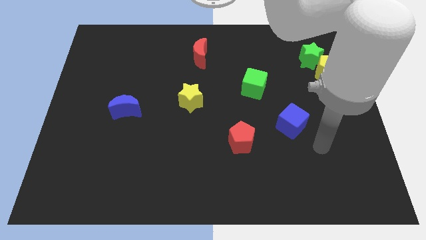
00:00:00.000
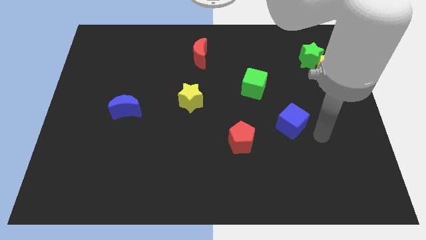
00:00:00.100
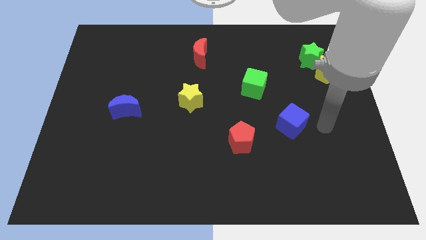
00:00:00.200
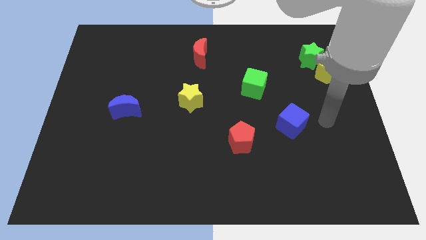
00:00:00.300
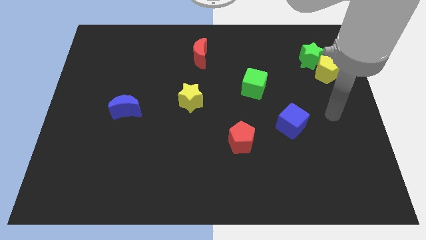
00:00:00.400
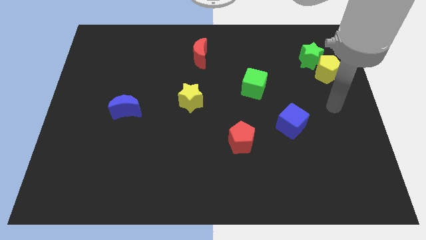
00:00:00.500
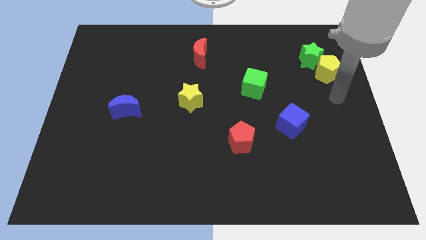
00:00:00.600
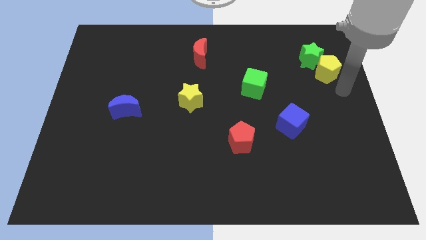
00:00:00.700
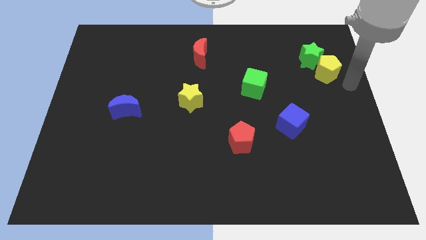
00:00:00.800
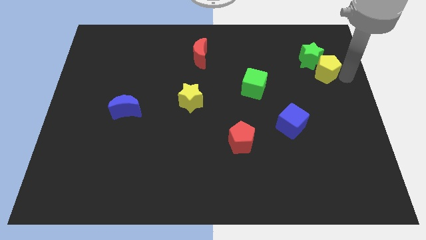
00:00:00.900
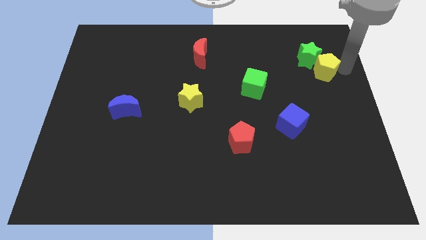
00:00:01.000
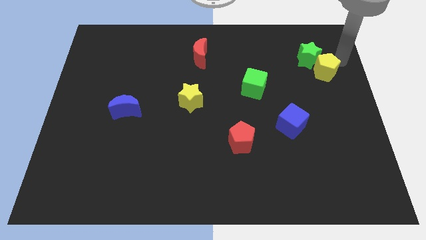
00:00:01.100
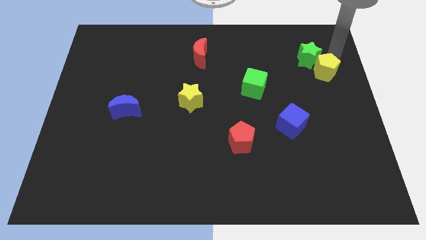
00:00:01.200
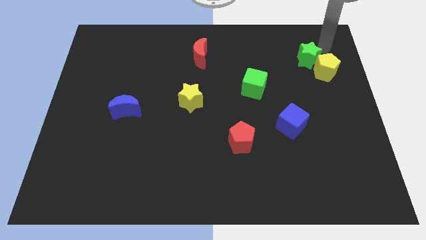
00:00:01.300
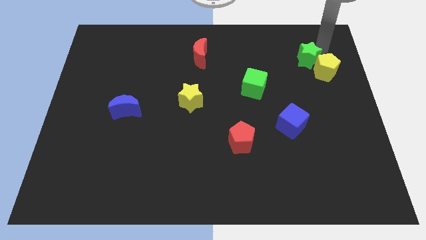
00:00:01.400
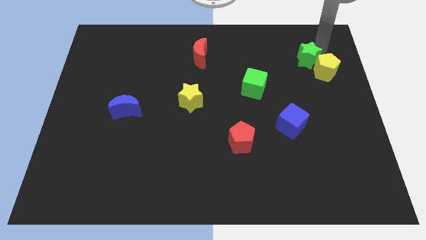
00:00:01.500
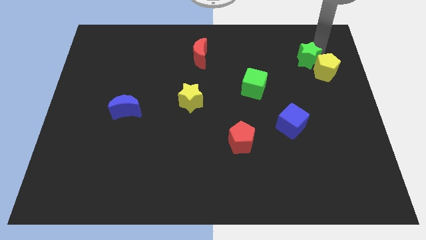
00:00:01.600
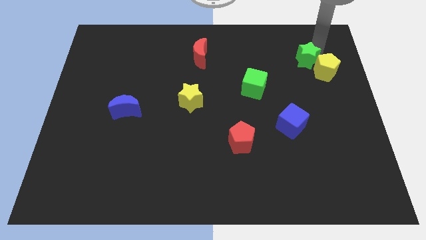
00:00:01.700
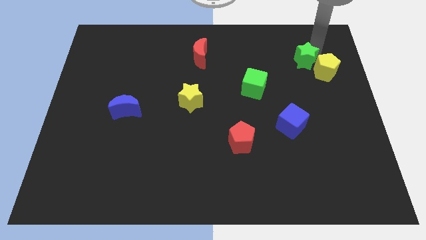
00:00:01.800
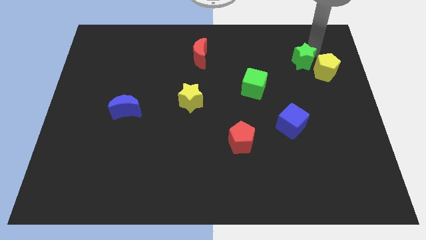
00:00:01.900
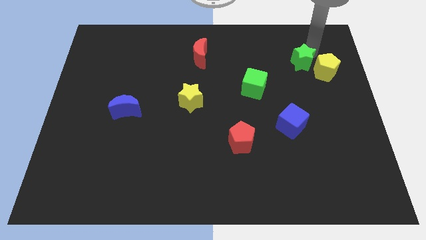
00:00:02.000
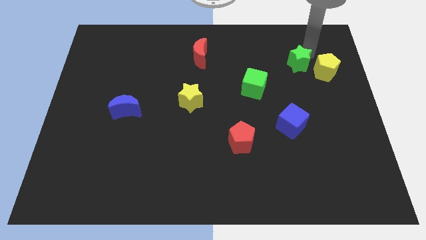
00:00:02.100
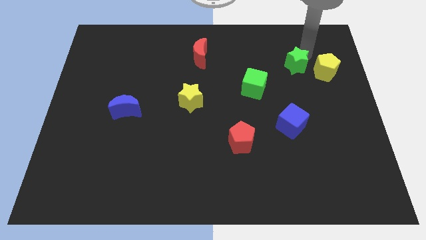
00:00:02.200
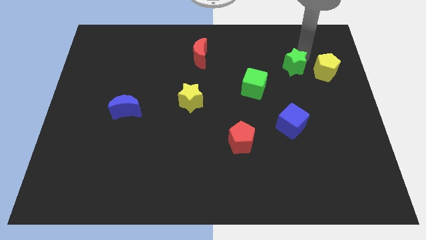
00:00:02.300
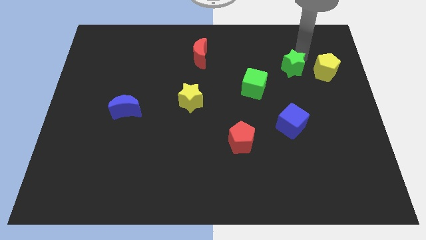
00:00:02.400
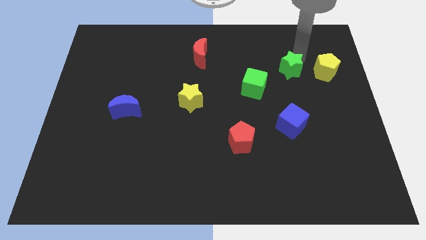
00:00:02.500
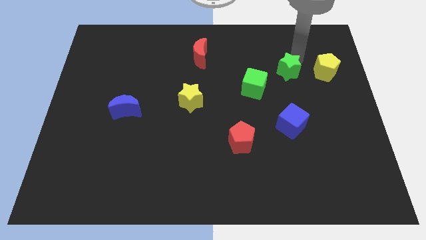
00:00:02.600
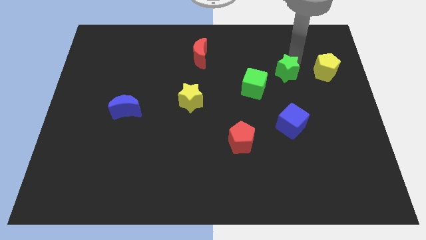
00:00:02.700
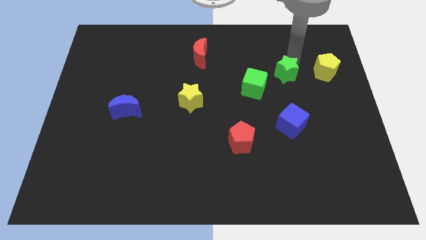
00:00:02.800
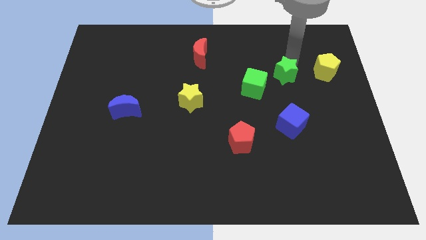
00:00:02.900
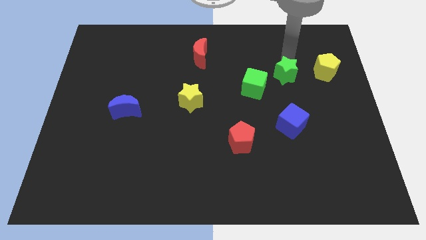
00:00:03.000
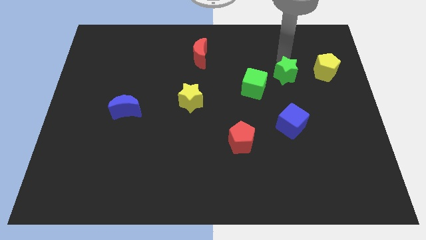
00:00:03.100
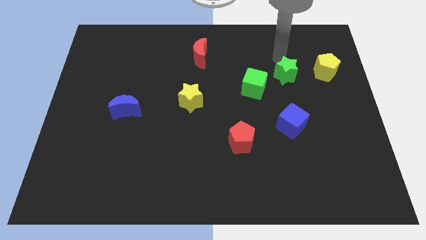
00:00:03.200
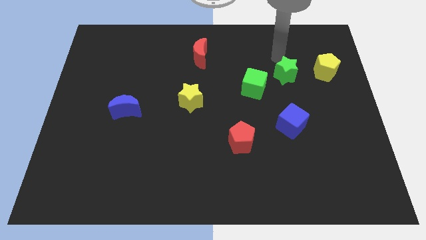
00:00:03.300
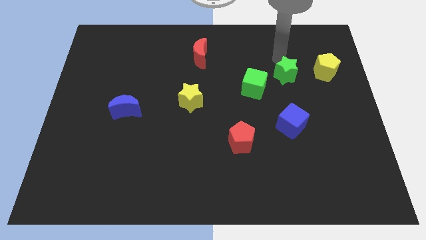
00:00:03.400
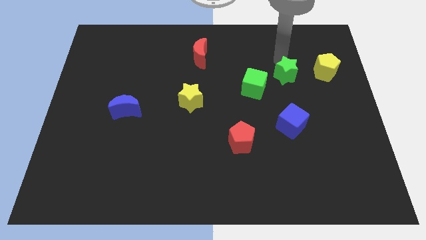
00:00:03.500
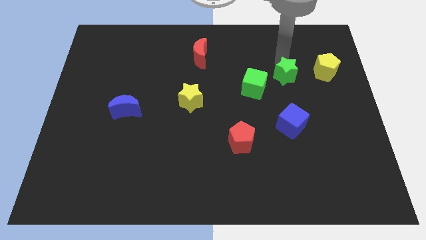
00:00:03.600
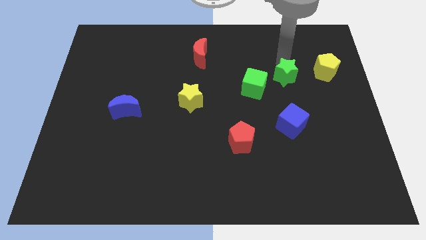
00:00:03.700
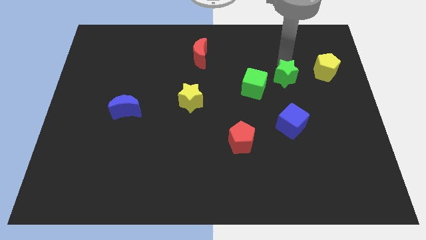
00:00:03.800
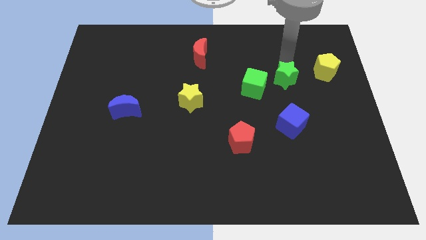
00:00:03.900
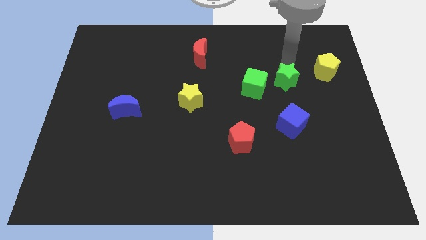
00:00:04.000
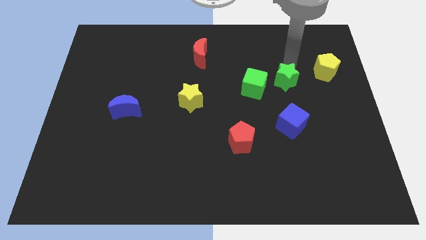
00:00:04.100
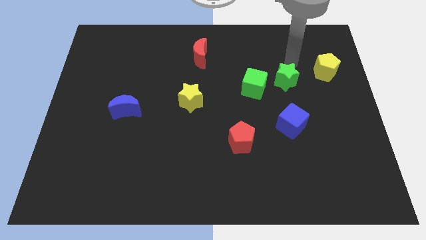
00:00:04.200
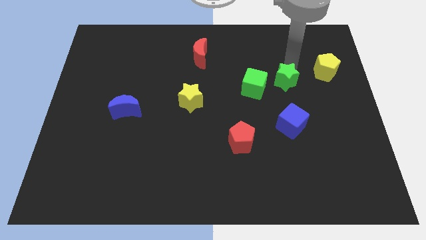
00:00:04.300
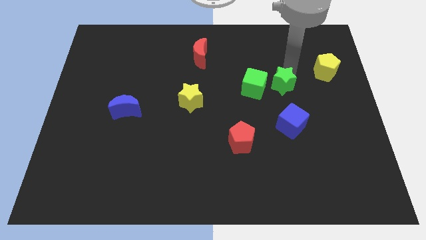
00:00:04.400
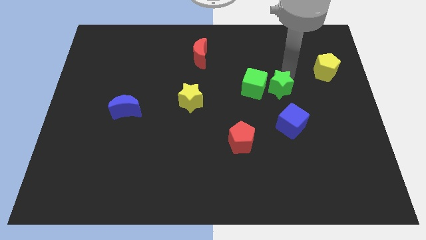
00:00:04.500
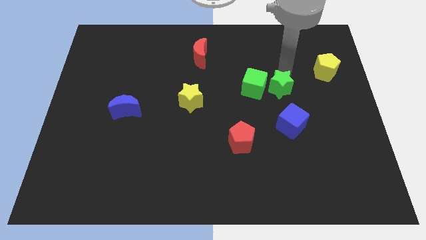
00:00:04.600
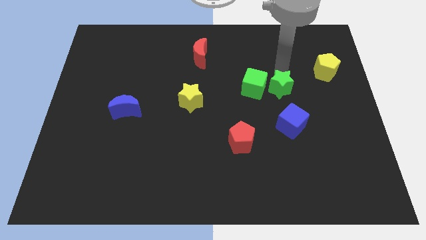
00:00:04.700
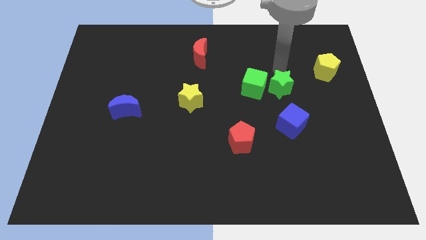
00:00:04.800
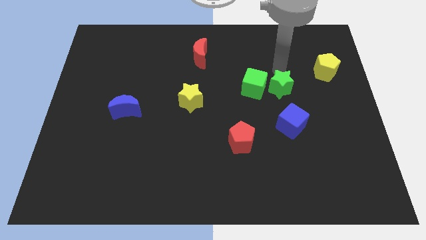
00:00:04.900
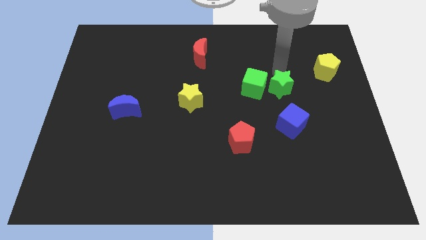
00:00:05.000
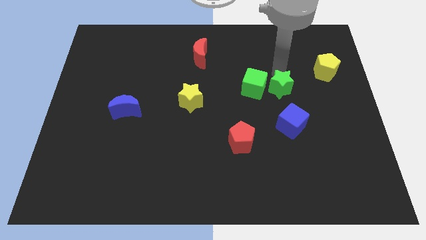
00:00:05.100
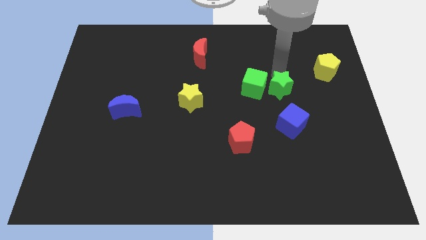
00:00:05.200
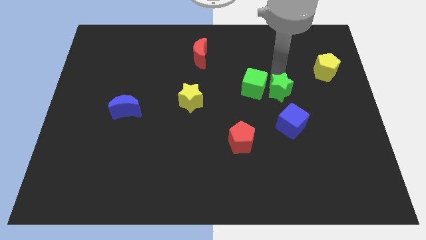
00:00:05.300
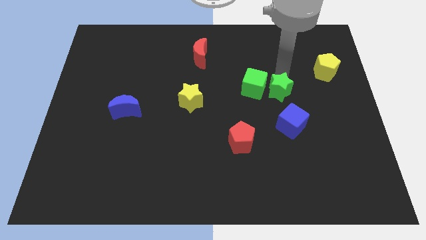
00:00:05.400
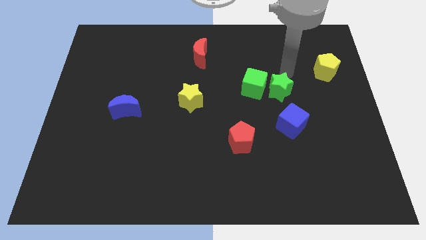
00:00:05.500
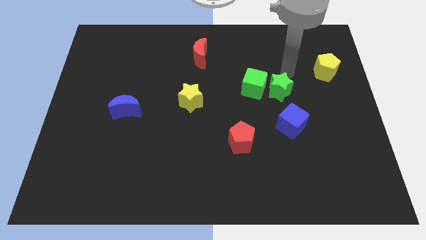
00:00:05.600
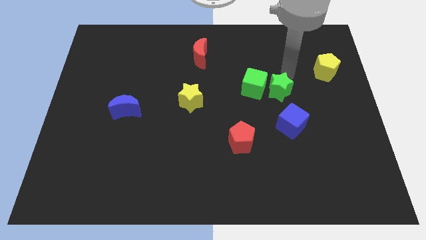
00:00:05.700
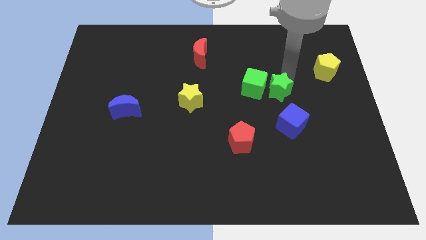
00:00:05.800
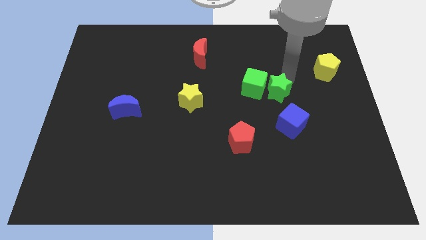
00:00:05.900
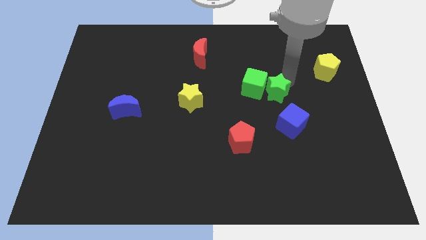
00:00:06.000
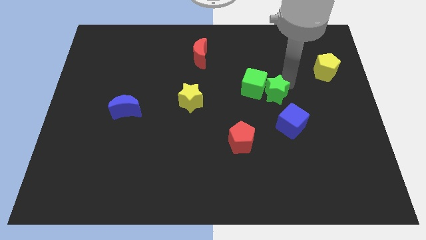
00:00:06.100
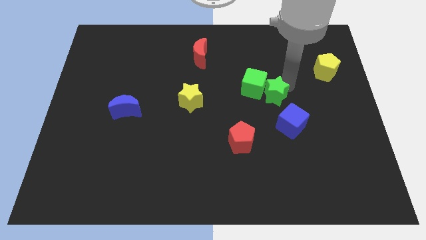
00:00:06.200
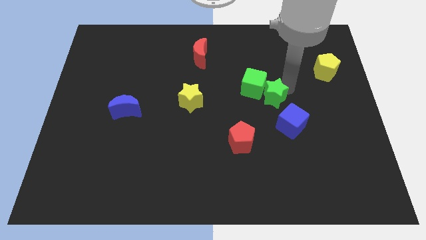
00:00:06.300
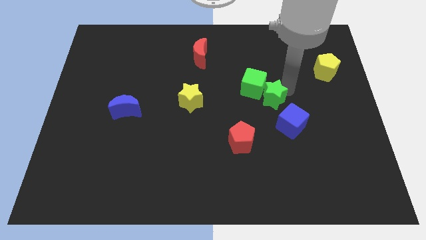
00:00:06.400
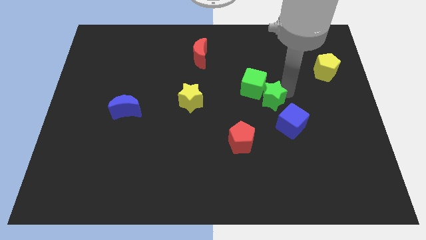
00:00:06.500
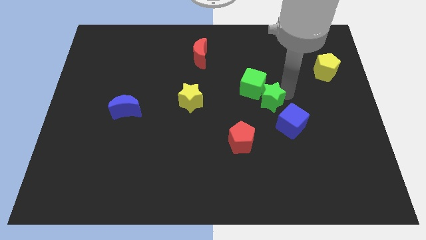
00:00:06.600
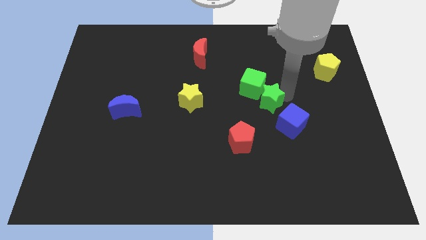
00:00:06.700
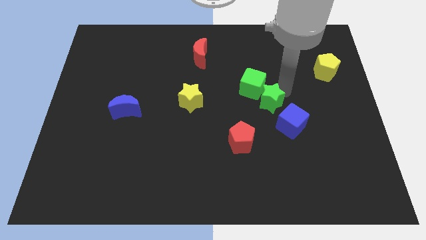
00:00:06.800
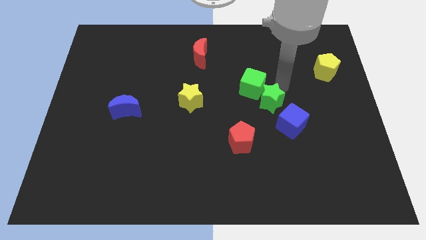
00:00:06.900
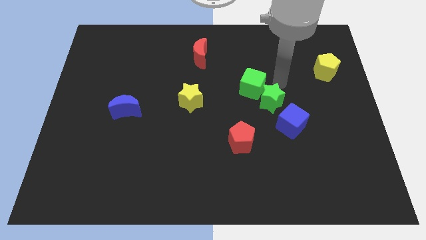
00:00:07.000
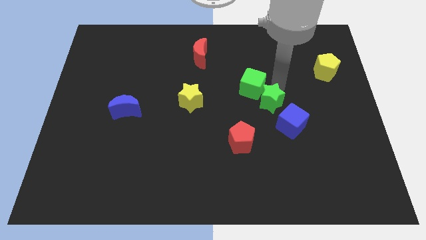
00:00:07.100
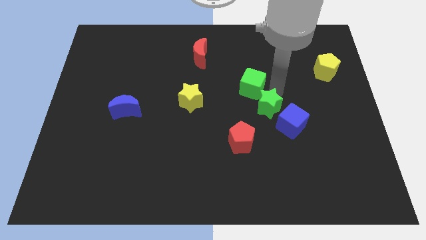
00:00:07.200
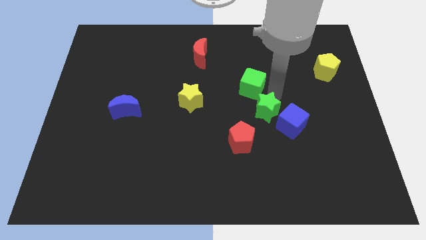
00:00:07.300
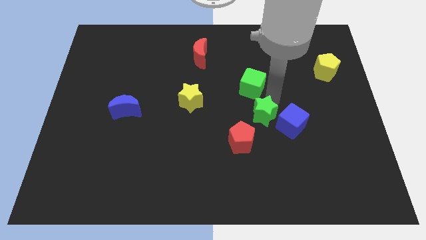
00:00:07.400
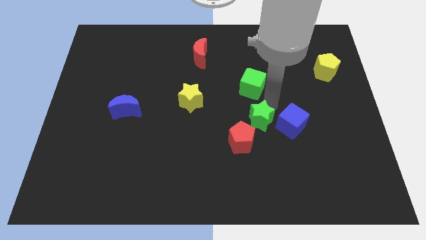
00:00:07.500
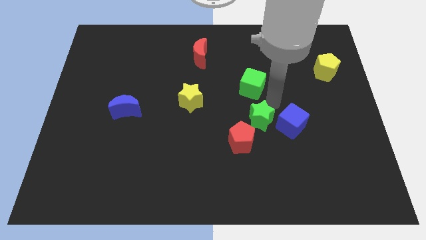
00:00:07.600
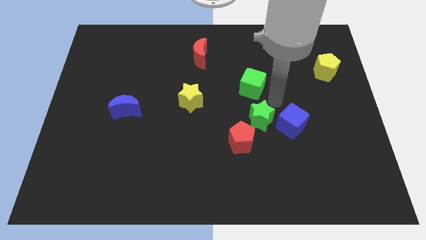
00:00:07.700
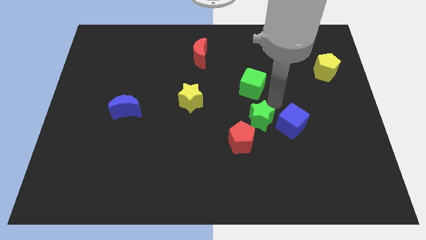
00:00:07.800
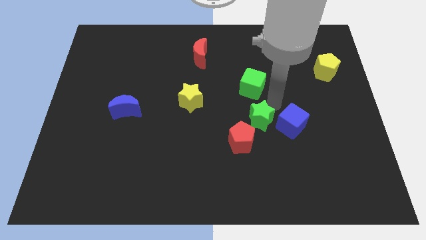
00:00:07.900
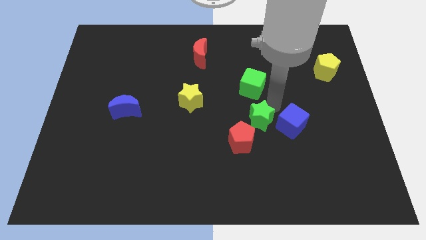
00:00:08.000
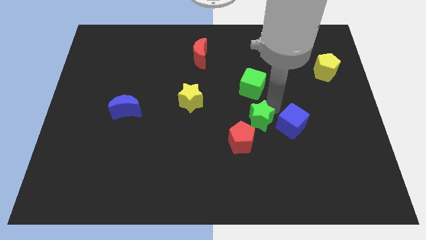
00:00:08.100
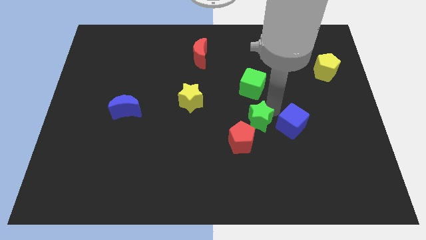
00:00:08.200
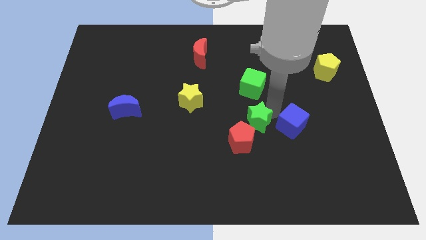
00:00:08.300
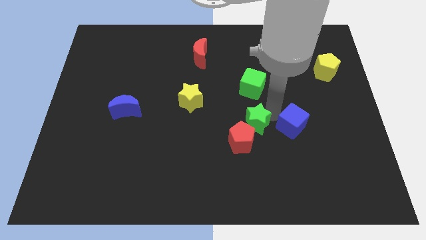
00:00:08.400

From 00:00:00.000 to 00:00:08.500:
push the green star next to the red pentagon
